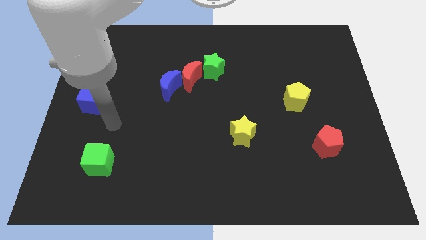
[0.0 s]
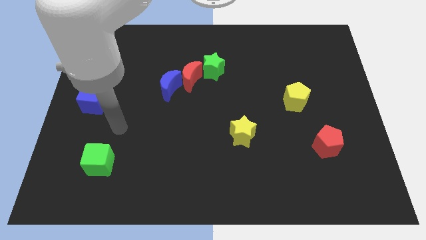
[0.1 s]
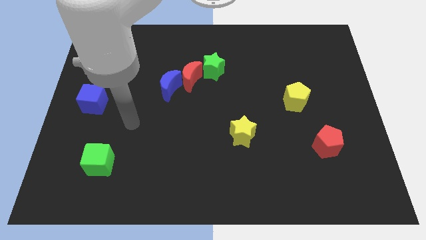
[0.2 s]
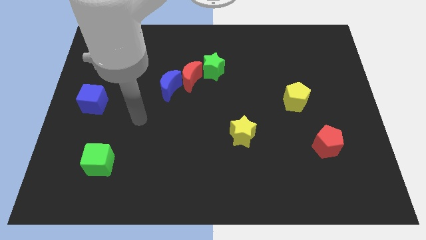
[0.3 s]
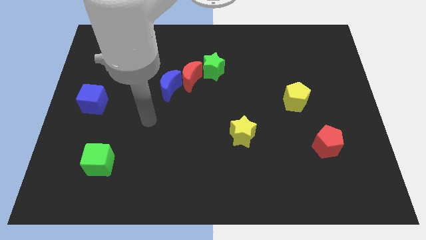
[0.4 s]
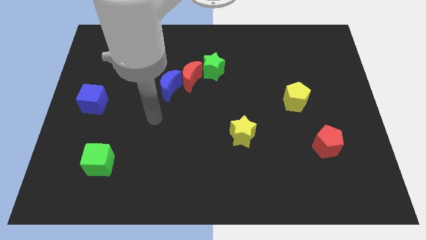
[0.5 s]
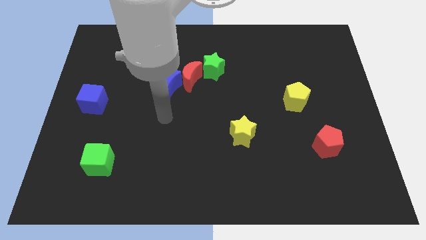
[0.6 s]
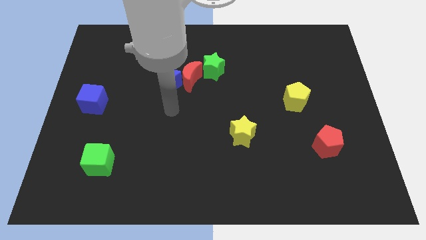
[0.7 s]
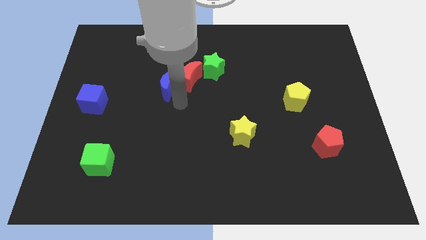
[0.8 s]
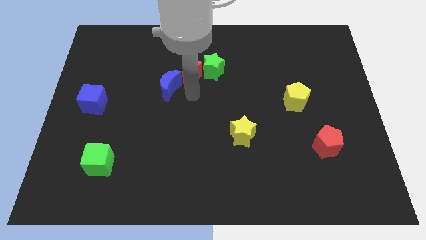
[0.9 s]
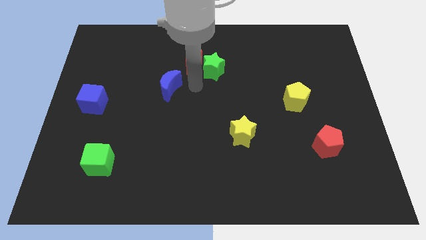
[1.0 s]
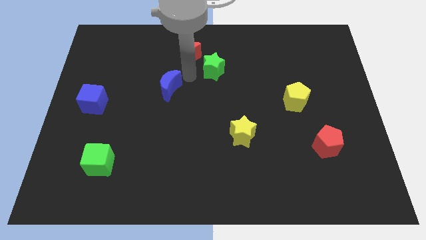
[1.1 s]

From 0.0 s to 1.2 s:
move the blue moon away from the red moon

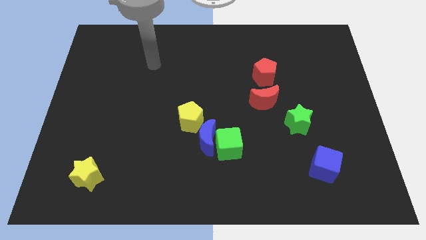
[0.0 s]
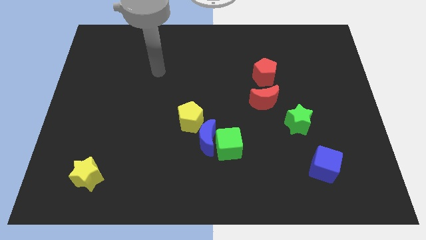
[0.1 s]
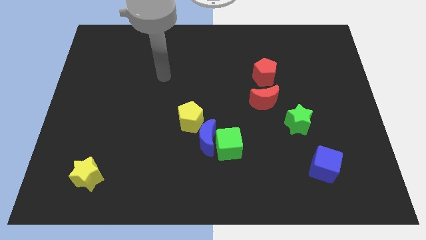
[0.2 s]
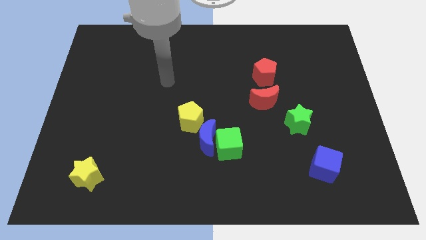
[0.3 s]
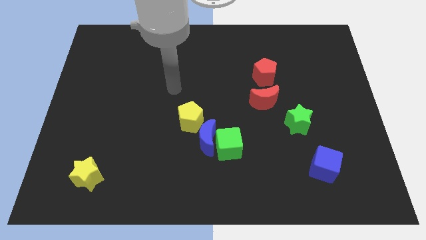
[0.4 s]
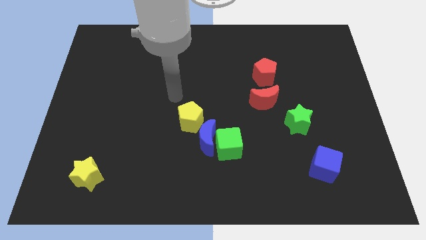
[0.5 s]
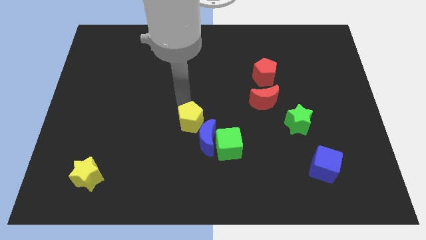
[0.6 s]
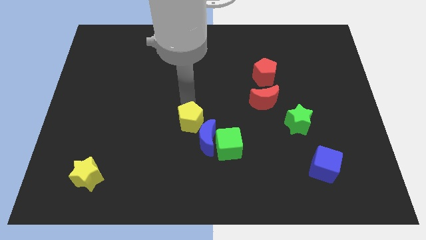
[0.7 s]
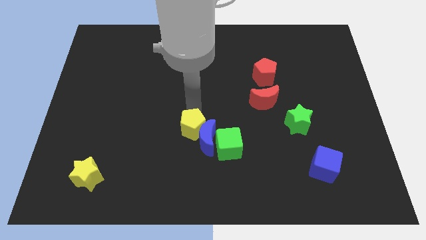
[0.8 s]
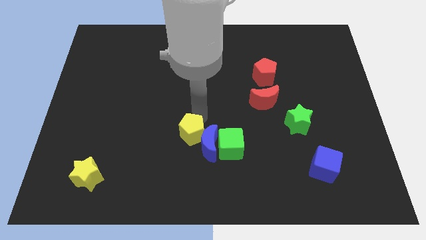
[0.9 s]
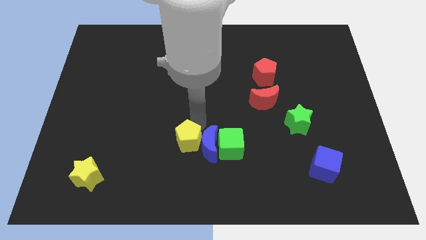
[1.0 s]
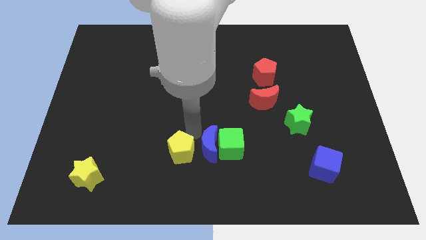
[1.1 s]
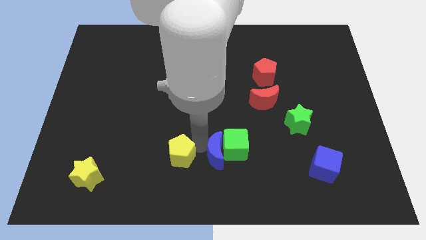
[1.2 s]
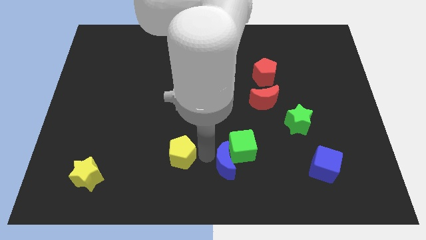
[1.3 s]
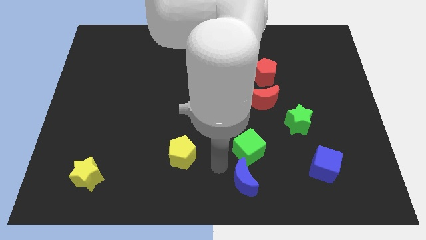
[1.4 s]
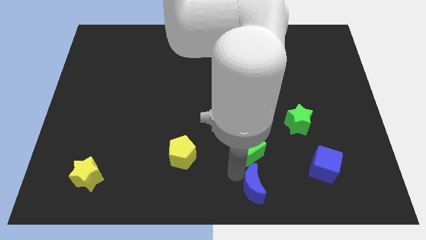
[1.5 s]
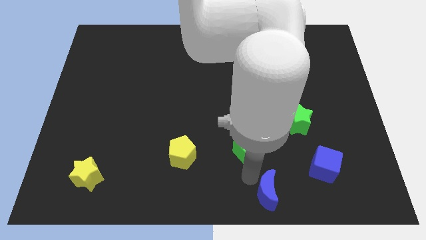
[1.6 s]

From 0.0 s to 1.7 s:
pull the green cube apart from the blue moon

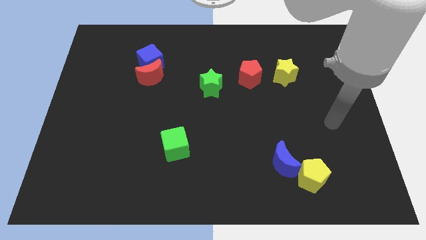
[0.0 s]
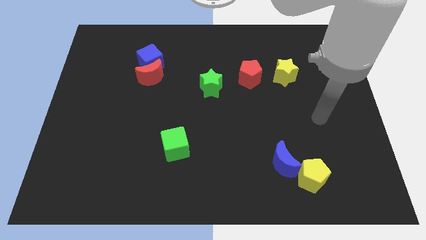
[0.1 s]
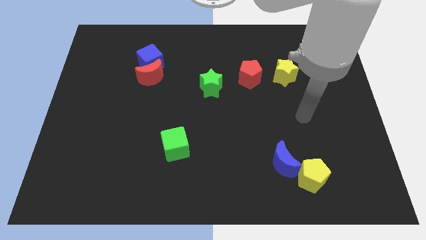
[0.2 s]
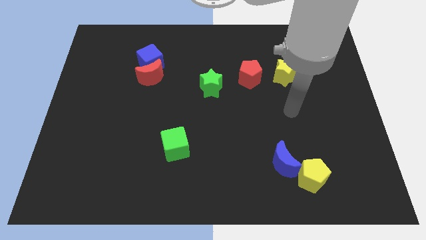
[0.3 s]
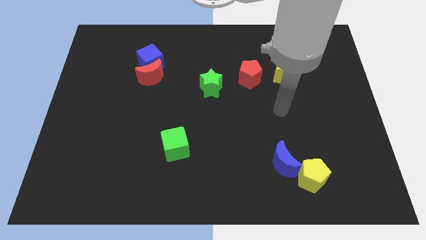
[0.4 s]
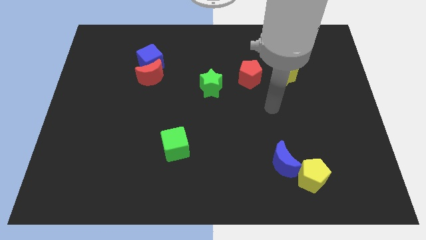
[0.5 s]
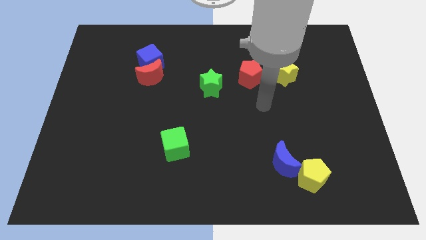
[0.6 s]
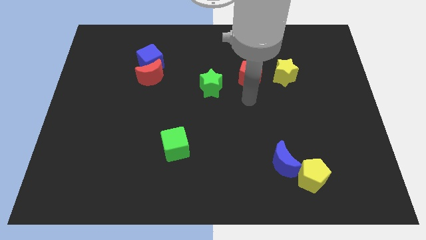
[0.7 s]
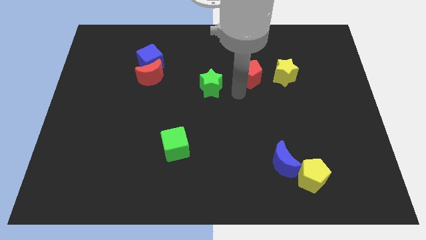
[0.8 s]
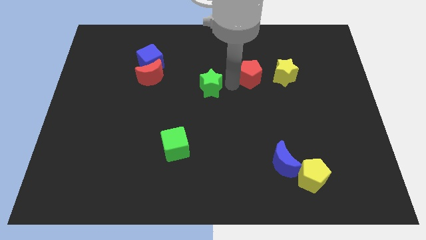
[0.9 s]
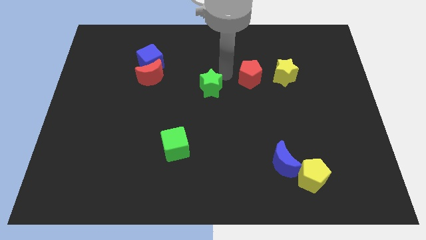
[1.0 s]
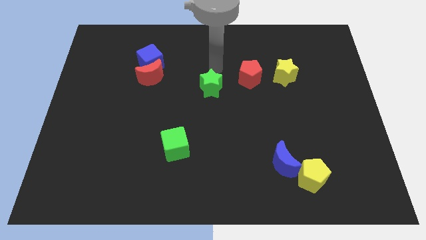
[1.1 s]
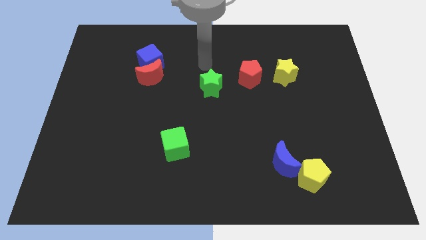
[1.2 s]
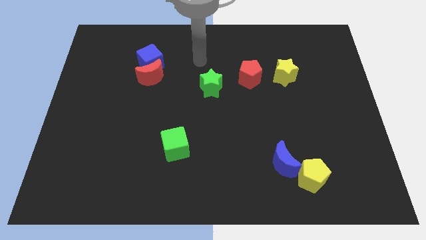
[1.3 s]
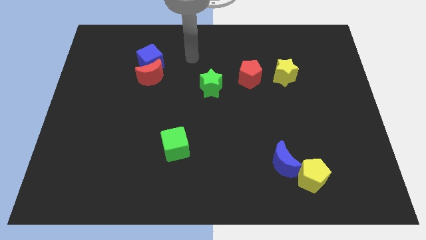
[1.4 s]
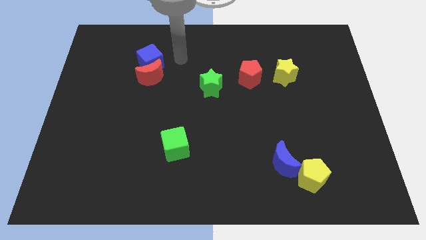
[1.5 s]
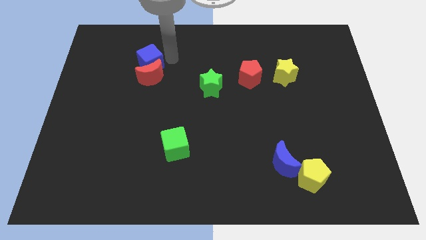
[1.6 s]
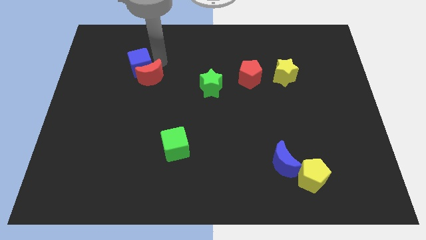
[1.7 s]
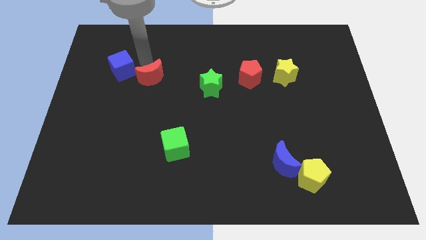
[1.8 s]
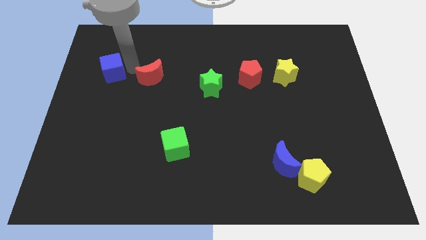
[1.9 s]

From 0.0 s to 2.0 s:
pull the red moon apart from the blue cube

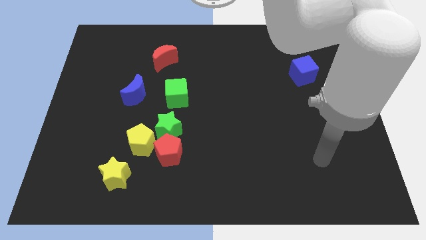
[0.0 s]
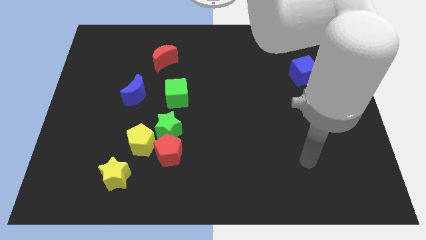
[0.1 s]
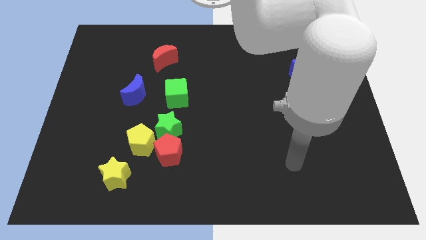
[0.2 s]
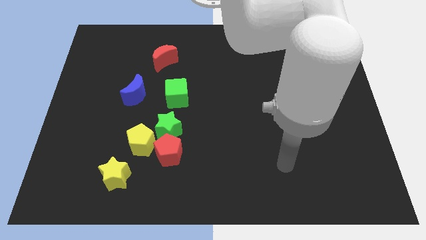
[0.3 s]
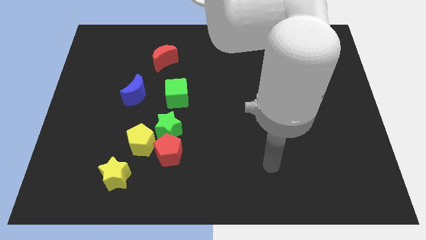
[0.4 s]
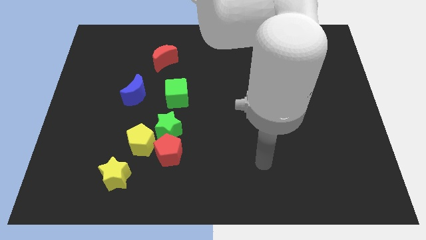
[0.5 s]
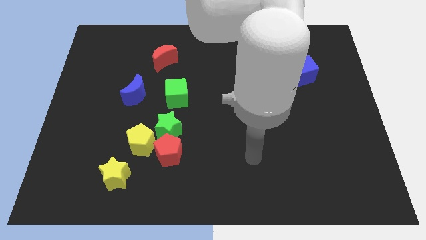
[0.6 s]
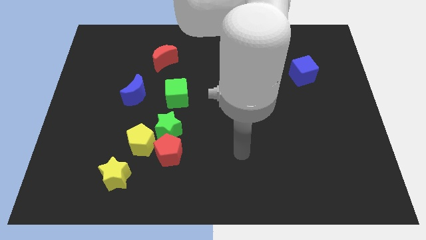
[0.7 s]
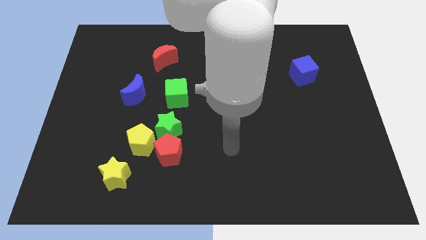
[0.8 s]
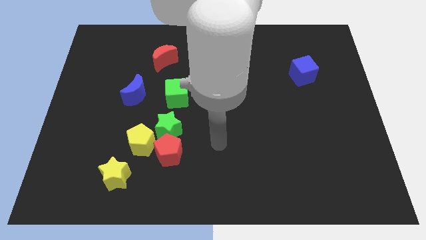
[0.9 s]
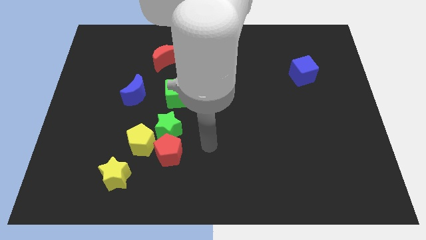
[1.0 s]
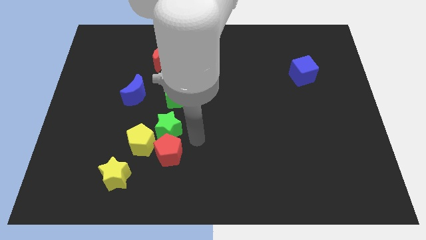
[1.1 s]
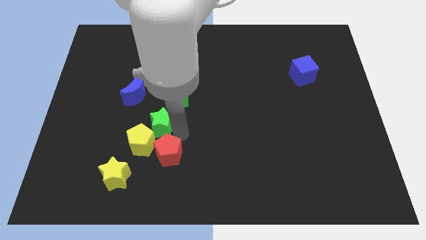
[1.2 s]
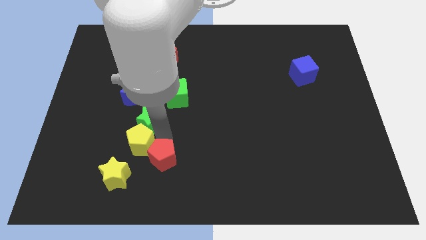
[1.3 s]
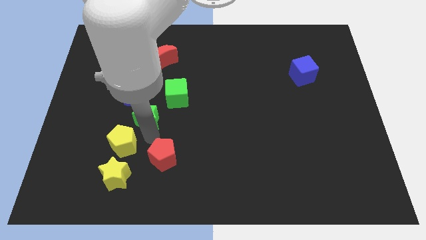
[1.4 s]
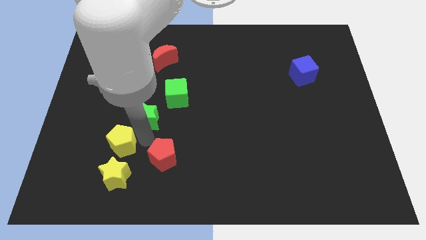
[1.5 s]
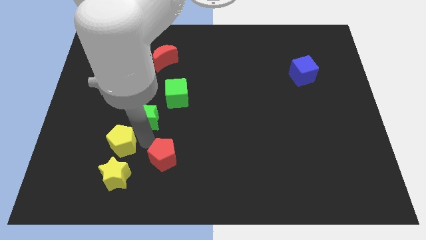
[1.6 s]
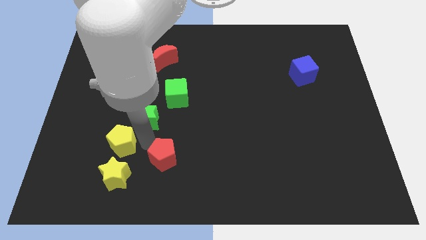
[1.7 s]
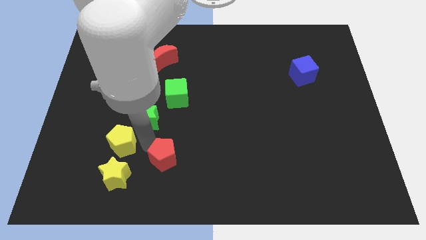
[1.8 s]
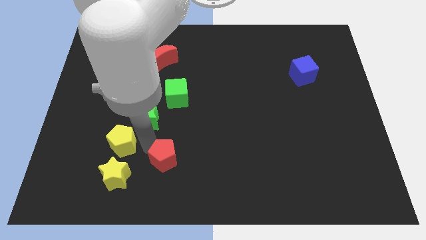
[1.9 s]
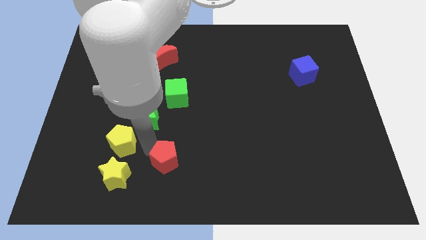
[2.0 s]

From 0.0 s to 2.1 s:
separate the red pentagon from the green star and yellow pentagon

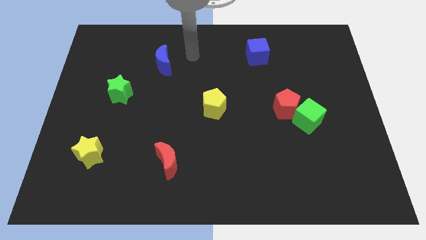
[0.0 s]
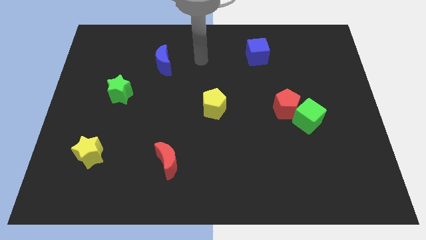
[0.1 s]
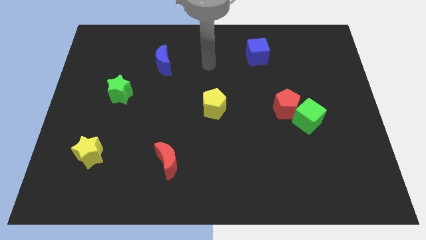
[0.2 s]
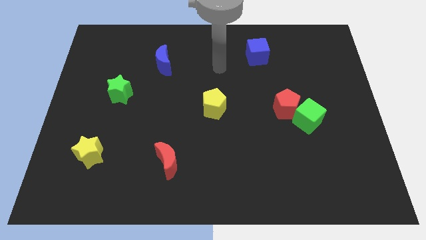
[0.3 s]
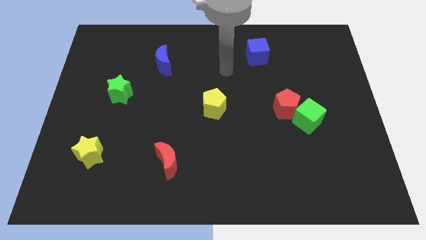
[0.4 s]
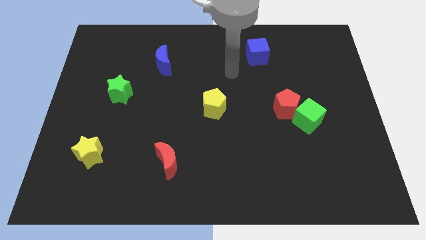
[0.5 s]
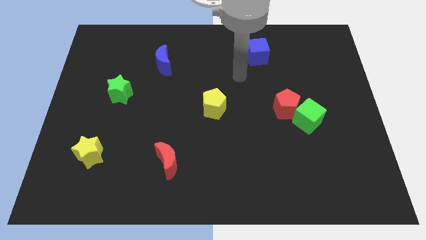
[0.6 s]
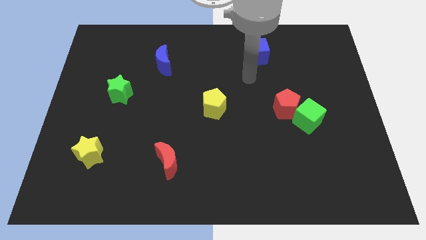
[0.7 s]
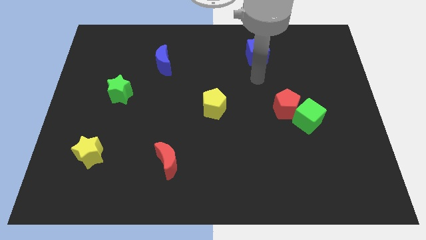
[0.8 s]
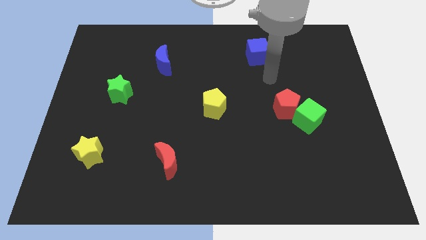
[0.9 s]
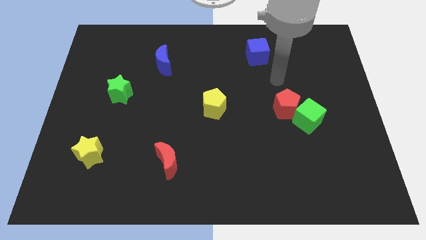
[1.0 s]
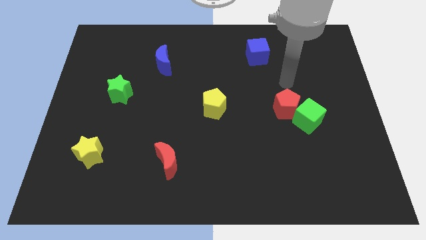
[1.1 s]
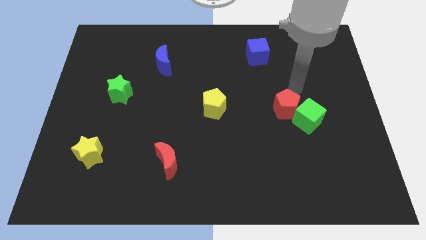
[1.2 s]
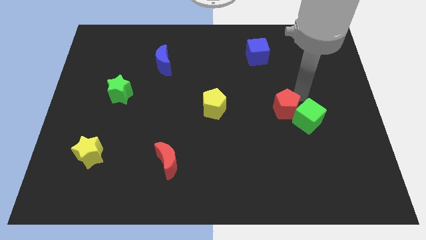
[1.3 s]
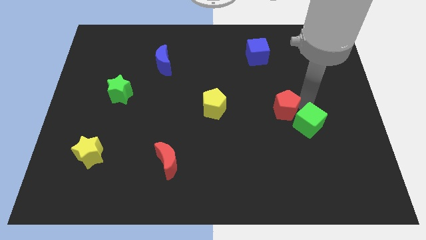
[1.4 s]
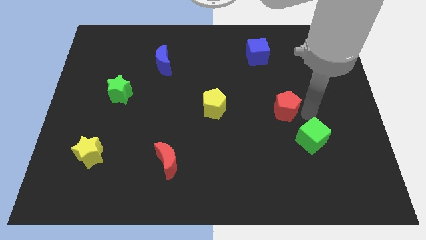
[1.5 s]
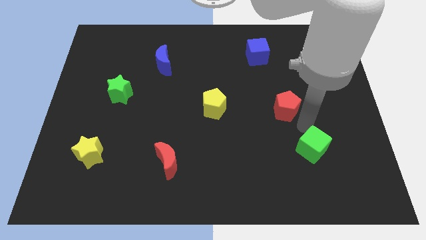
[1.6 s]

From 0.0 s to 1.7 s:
move the red pentagon away from the green cube

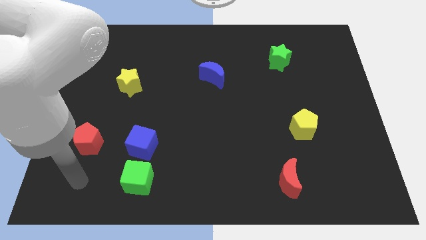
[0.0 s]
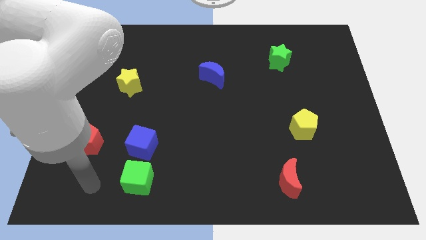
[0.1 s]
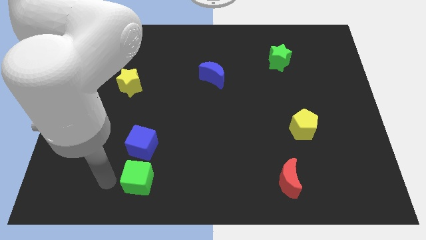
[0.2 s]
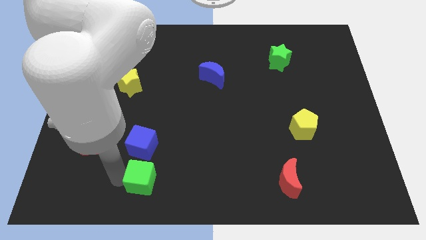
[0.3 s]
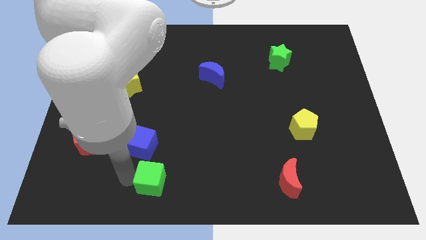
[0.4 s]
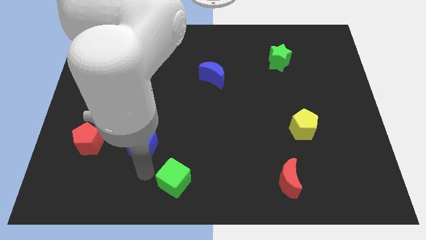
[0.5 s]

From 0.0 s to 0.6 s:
move the blue cube away from the green cube

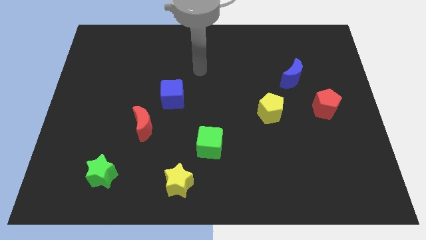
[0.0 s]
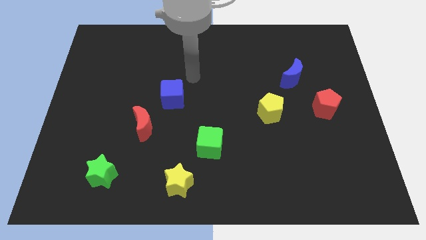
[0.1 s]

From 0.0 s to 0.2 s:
move the red moon away from the blue cube
